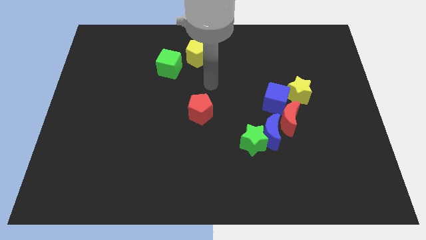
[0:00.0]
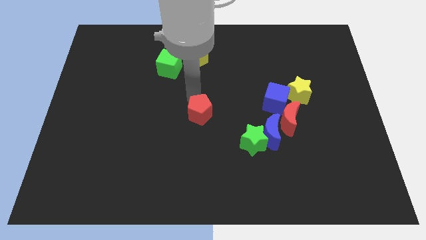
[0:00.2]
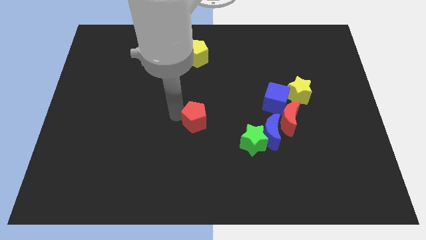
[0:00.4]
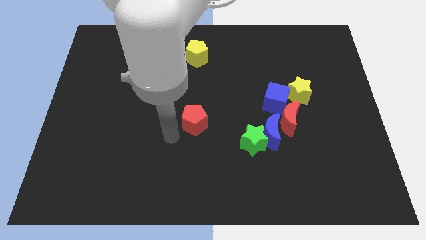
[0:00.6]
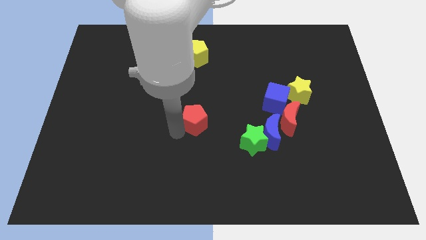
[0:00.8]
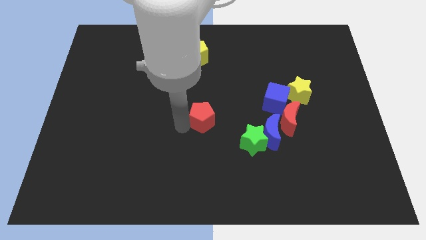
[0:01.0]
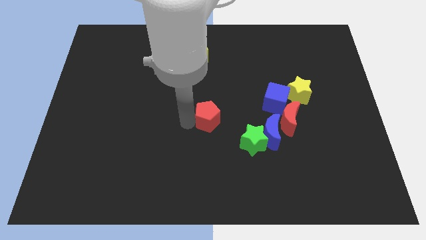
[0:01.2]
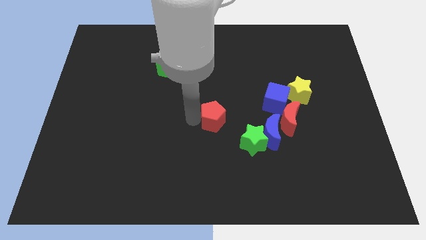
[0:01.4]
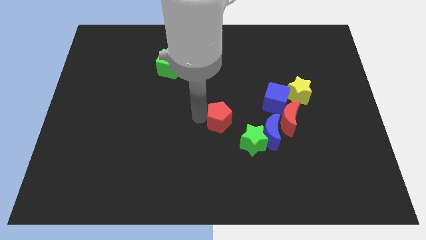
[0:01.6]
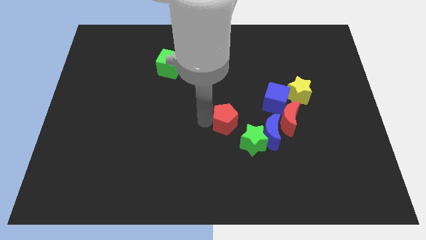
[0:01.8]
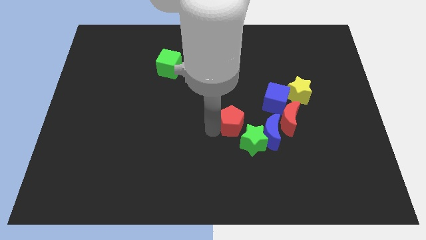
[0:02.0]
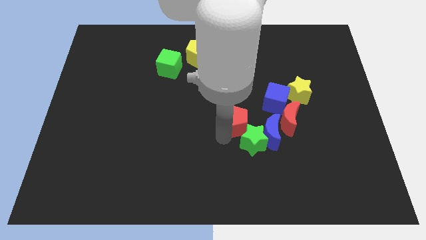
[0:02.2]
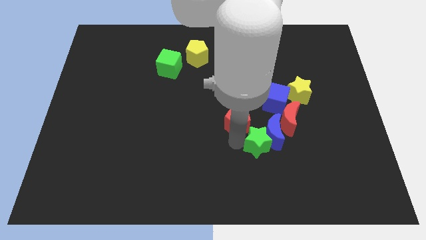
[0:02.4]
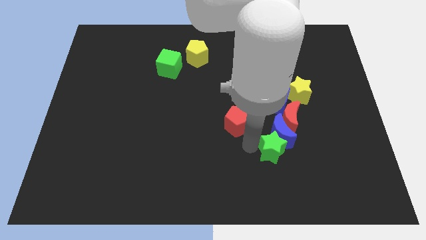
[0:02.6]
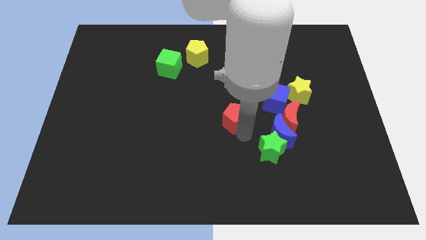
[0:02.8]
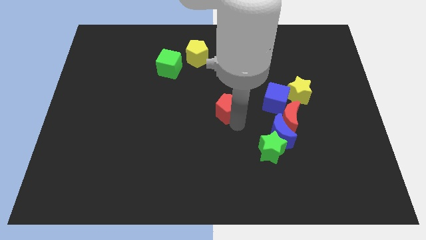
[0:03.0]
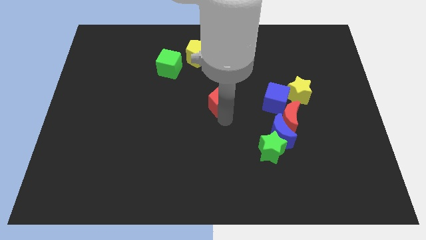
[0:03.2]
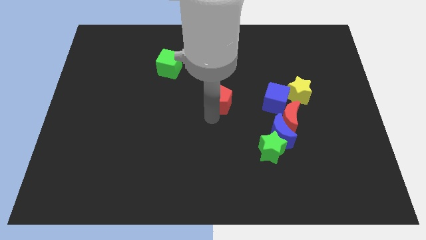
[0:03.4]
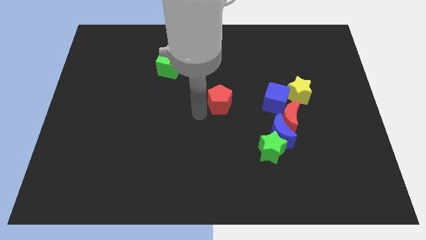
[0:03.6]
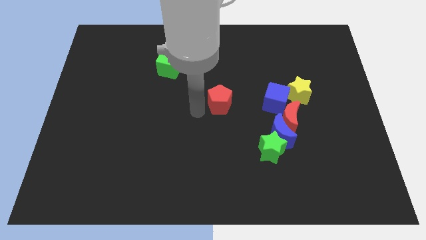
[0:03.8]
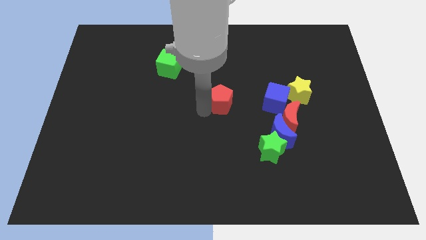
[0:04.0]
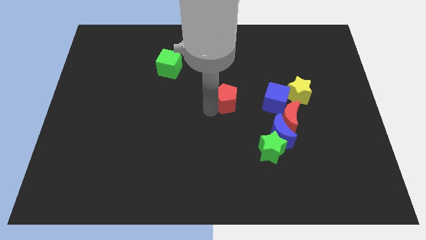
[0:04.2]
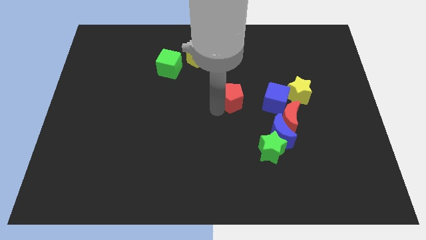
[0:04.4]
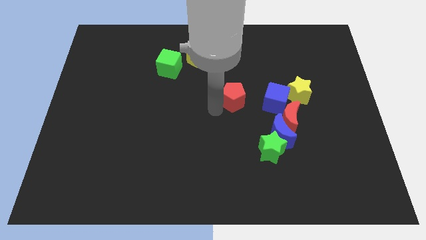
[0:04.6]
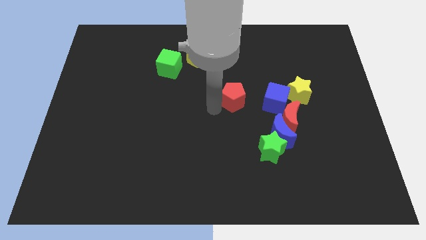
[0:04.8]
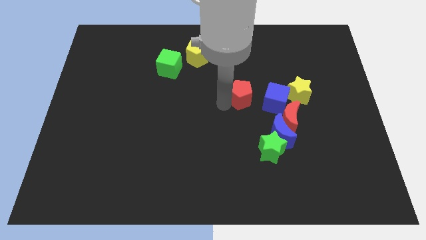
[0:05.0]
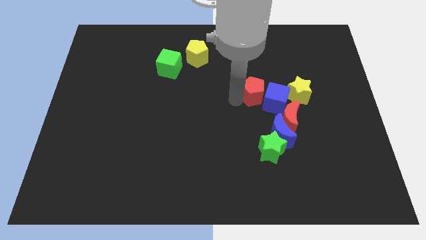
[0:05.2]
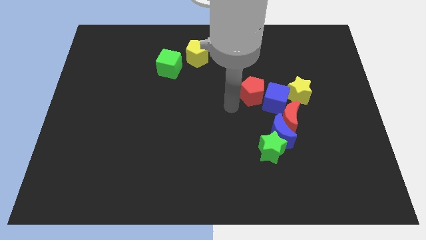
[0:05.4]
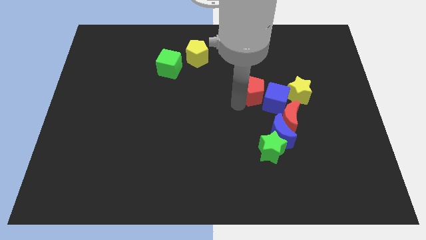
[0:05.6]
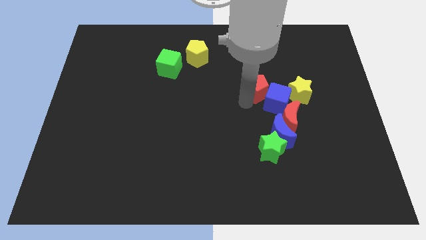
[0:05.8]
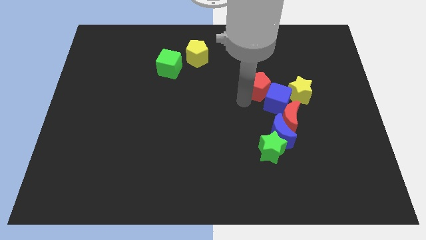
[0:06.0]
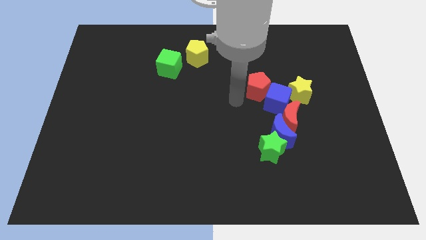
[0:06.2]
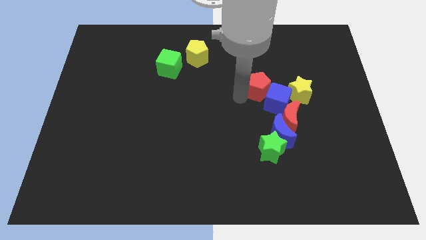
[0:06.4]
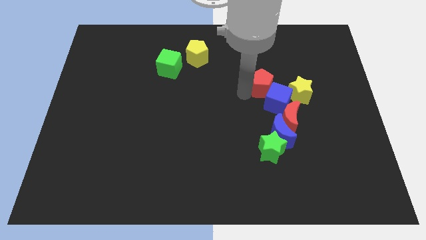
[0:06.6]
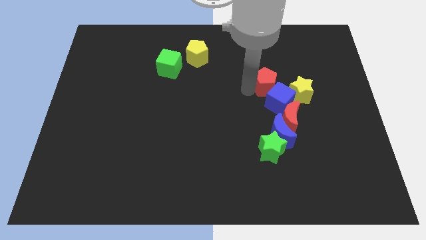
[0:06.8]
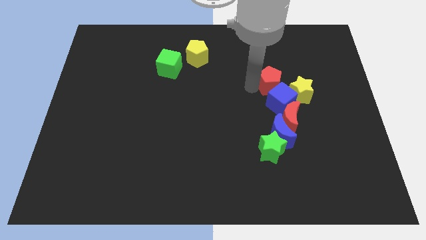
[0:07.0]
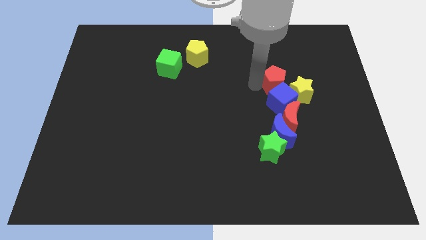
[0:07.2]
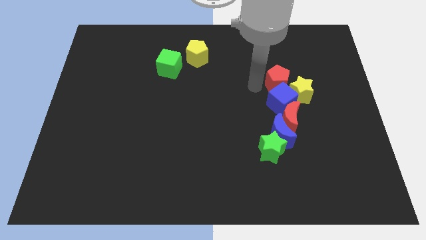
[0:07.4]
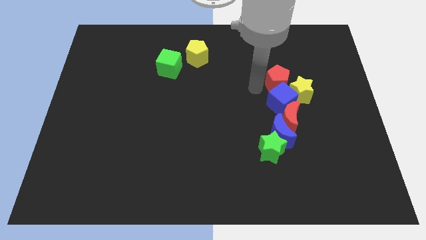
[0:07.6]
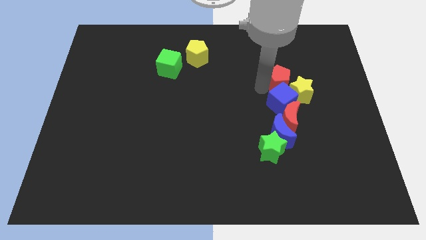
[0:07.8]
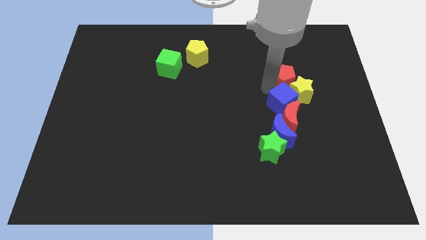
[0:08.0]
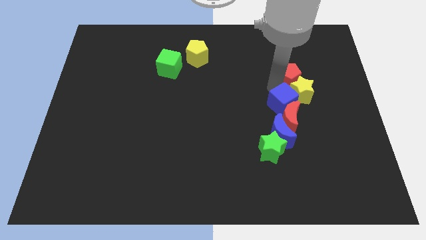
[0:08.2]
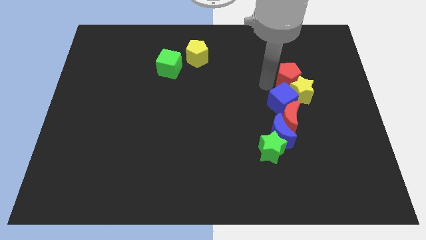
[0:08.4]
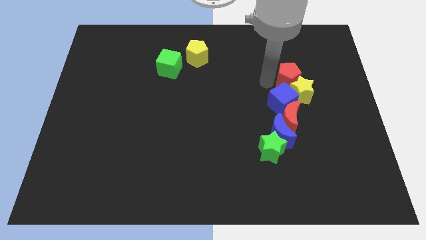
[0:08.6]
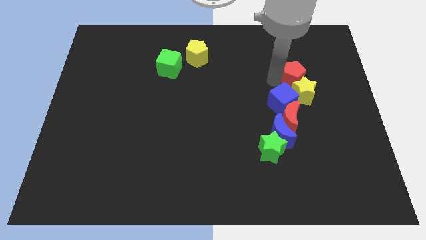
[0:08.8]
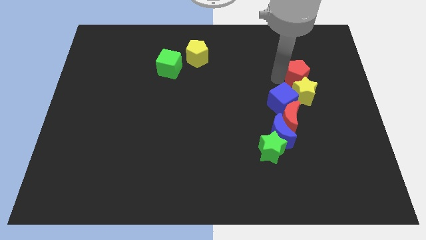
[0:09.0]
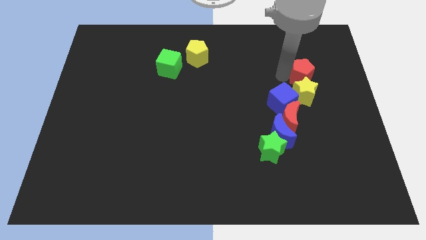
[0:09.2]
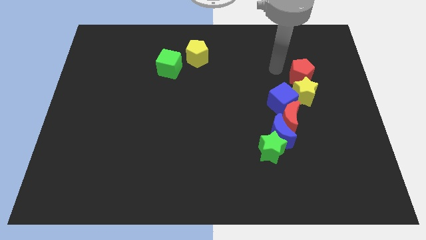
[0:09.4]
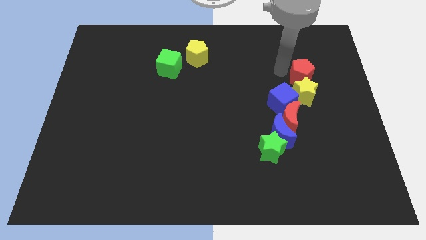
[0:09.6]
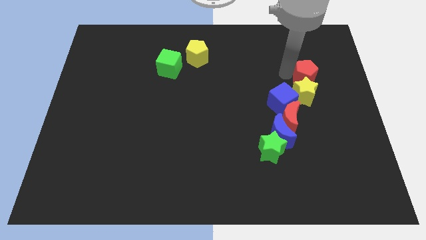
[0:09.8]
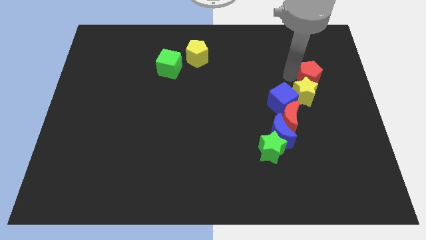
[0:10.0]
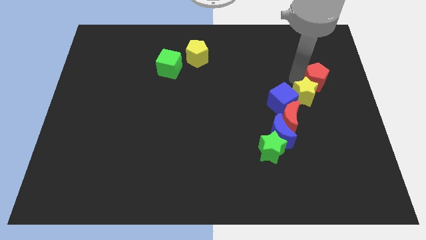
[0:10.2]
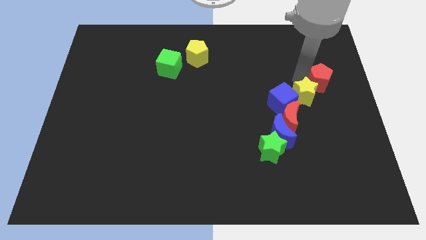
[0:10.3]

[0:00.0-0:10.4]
push the red pentagon to the center right

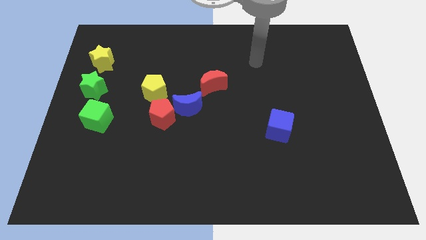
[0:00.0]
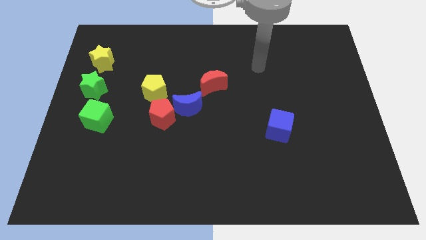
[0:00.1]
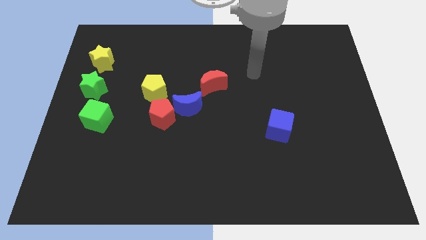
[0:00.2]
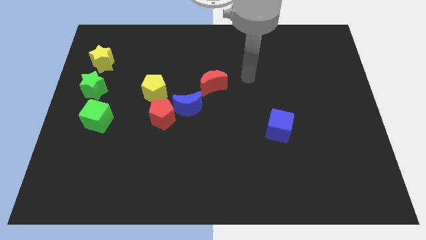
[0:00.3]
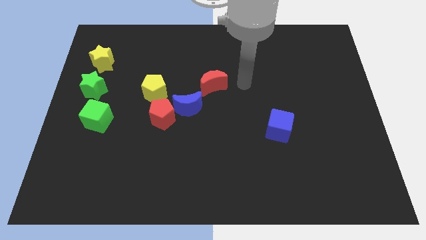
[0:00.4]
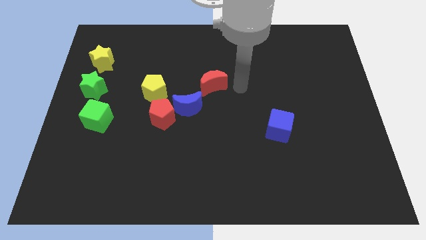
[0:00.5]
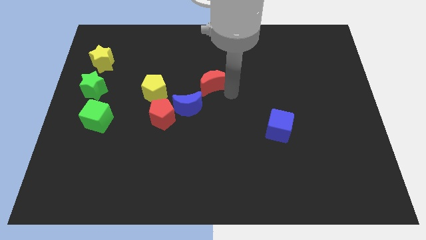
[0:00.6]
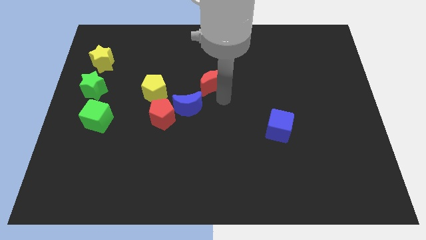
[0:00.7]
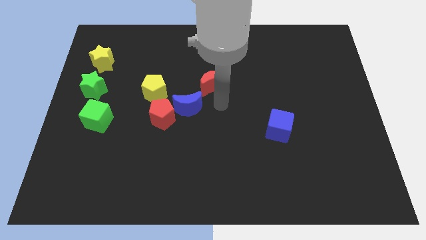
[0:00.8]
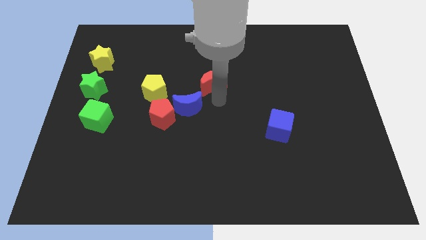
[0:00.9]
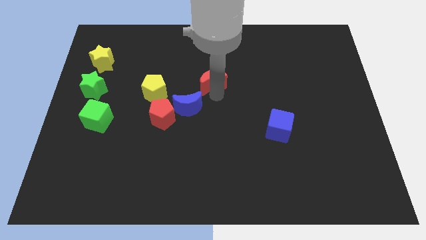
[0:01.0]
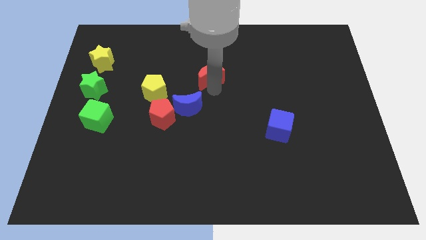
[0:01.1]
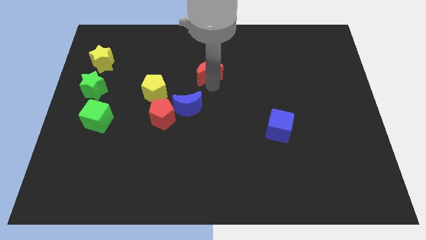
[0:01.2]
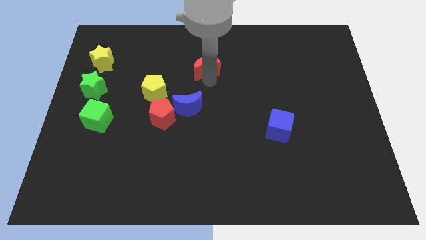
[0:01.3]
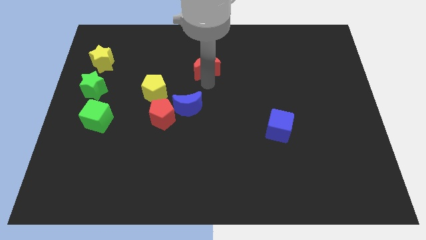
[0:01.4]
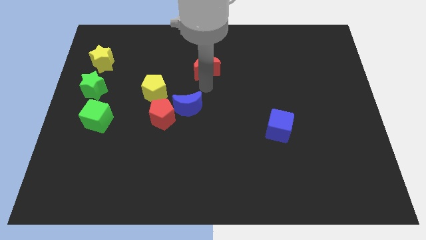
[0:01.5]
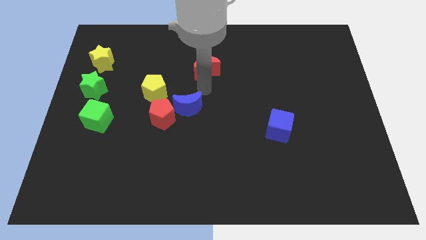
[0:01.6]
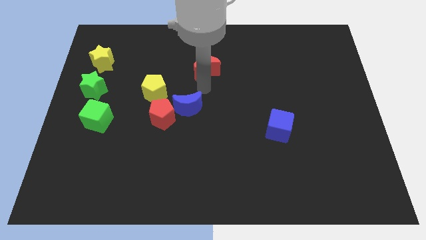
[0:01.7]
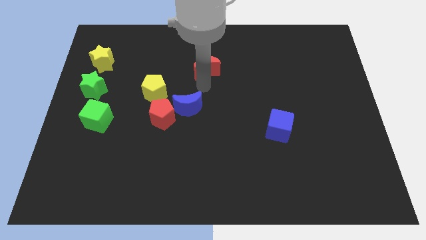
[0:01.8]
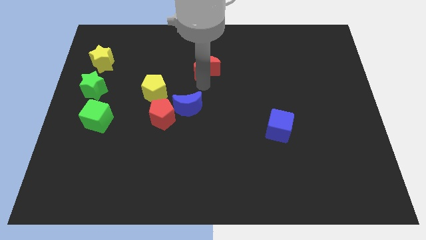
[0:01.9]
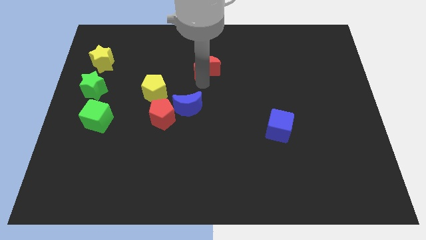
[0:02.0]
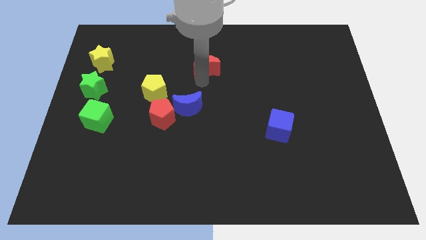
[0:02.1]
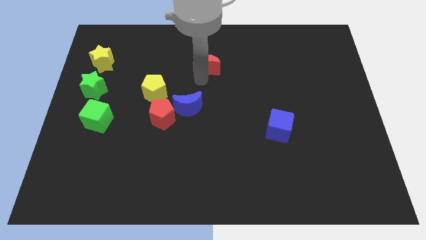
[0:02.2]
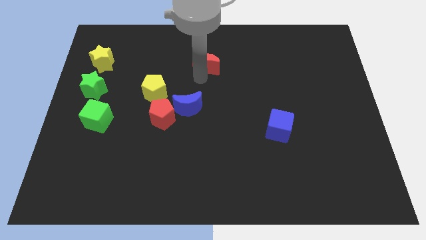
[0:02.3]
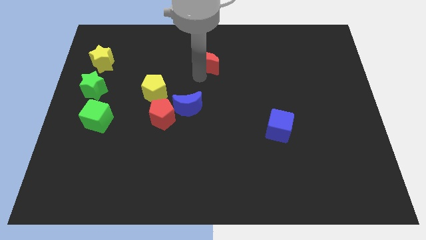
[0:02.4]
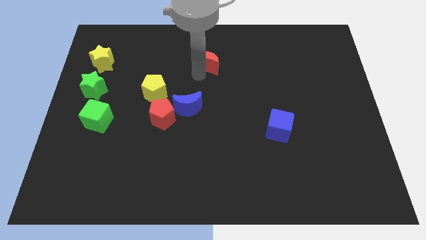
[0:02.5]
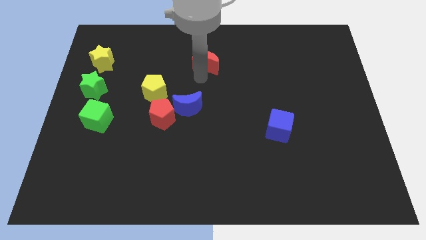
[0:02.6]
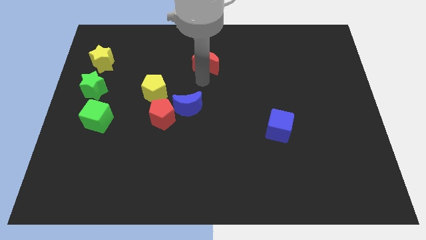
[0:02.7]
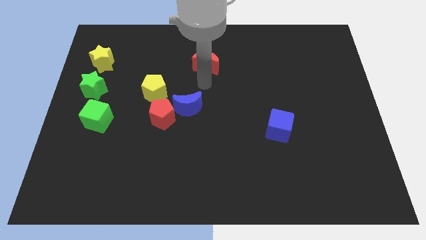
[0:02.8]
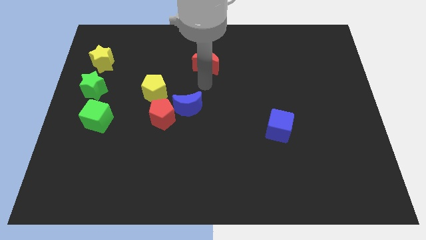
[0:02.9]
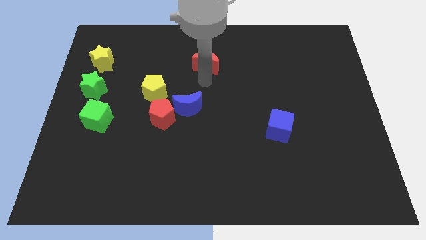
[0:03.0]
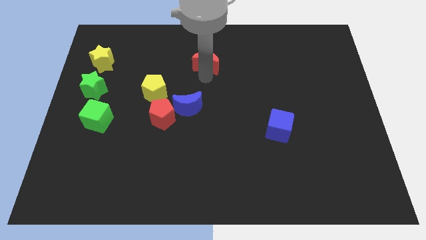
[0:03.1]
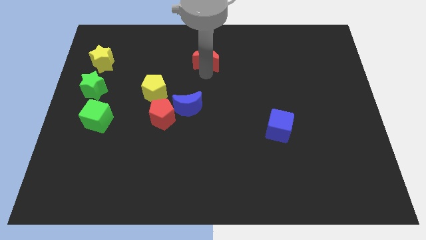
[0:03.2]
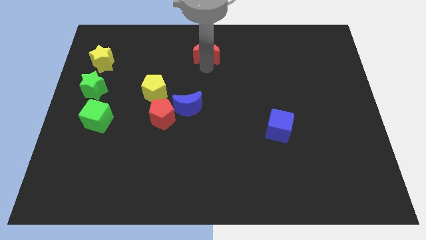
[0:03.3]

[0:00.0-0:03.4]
slide the red moon to the top side
